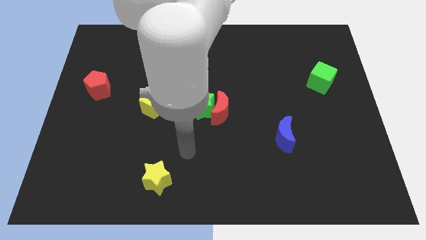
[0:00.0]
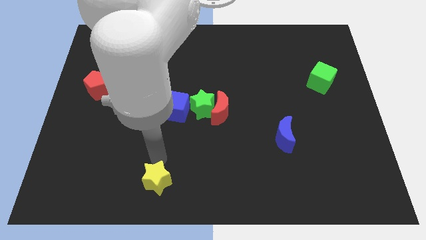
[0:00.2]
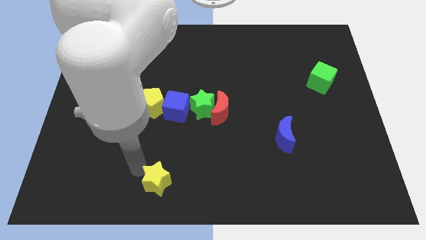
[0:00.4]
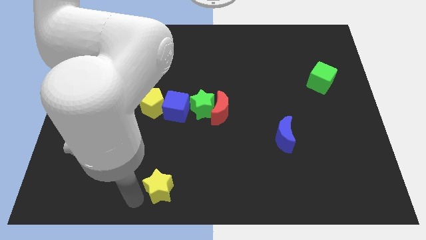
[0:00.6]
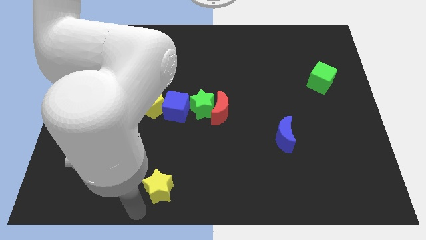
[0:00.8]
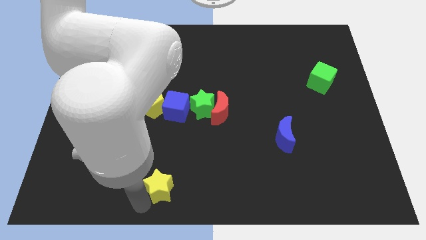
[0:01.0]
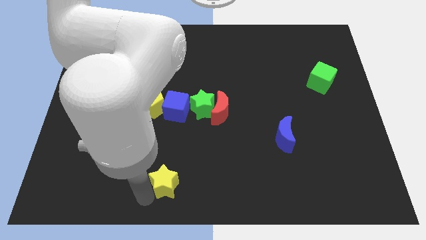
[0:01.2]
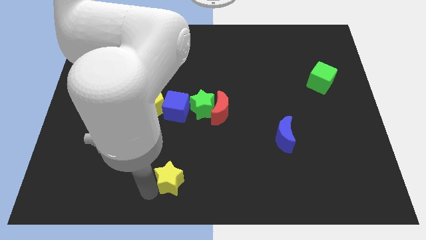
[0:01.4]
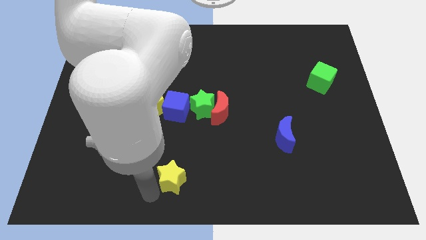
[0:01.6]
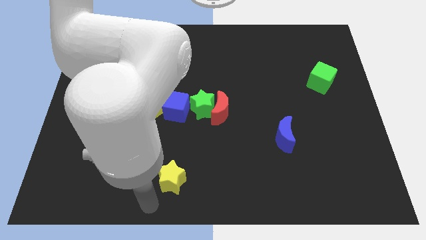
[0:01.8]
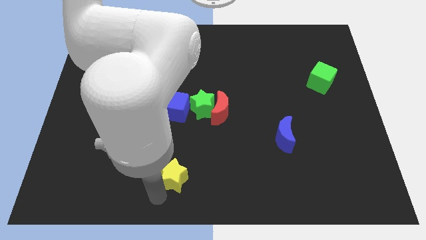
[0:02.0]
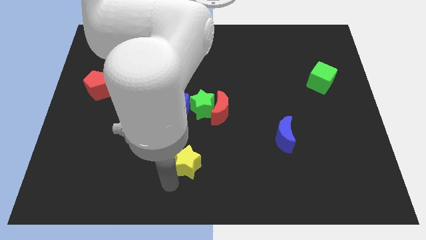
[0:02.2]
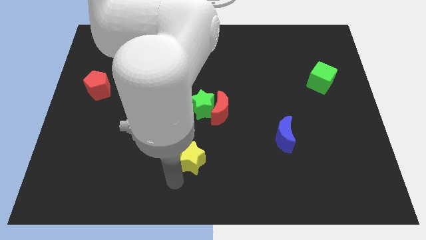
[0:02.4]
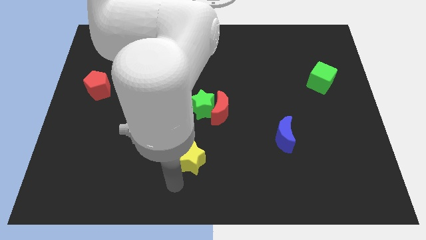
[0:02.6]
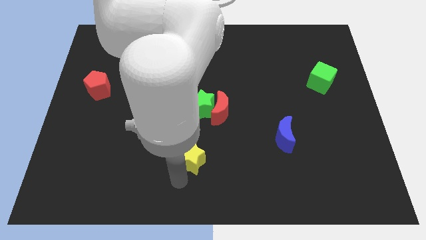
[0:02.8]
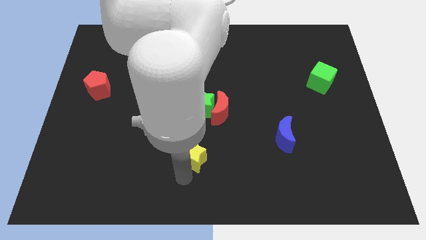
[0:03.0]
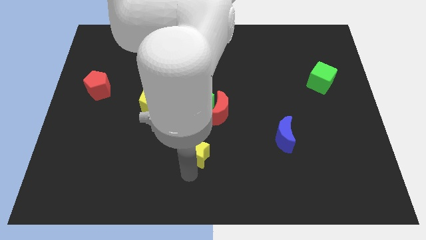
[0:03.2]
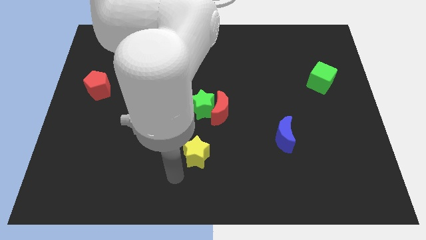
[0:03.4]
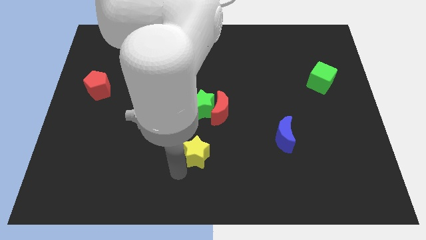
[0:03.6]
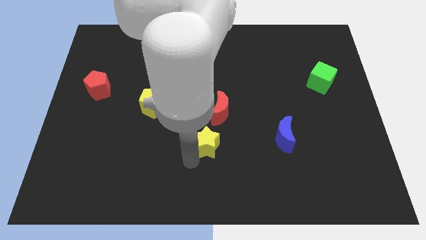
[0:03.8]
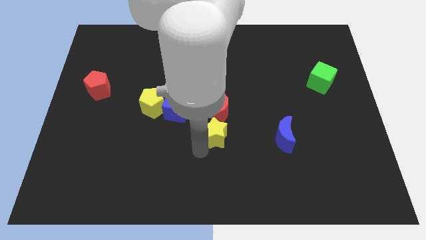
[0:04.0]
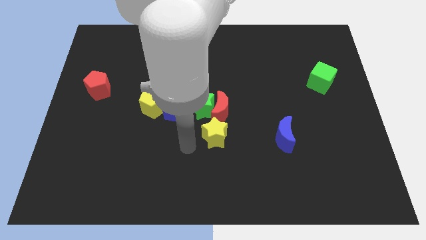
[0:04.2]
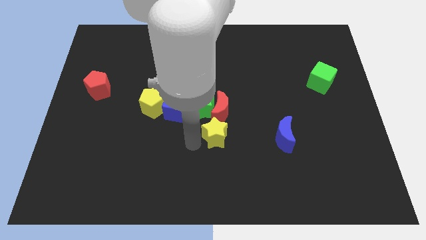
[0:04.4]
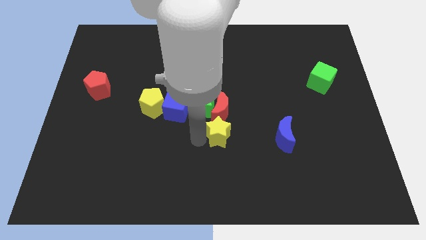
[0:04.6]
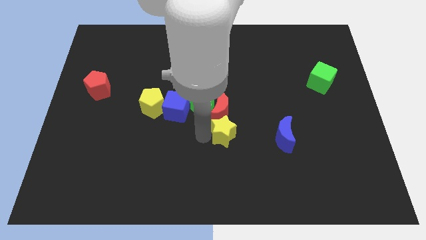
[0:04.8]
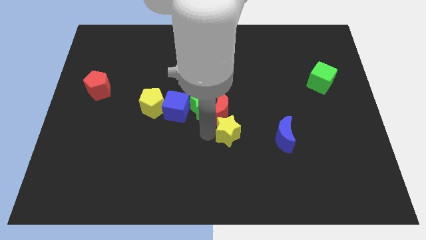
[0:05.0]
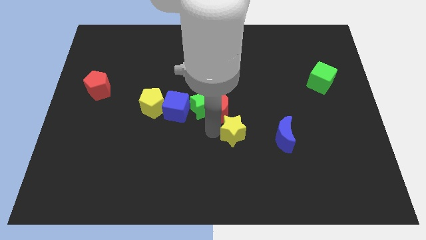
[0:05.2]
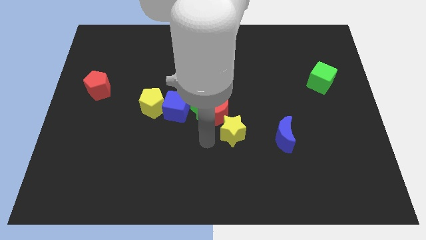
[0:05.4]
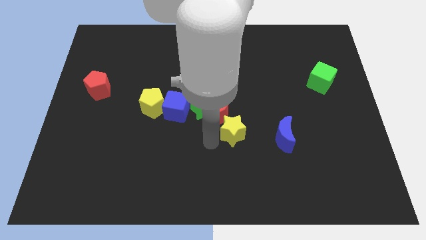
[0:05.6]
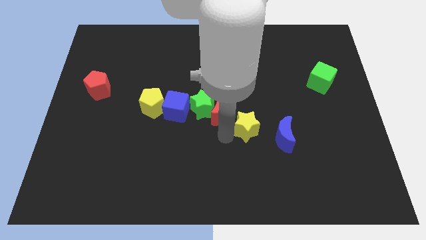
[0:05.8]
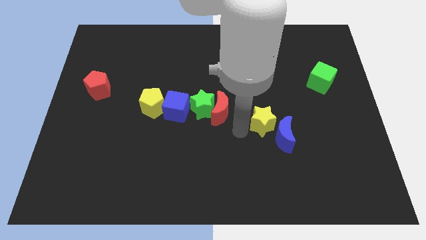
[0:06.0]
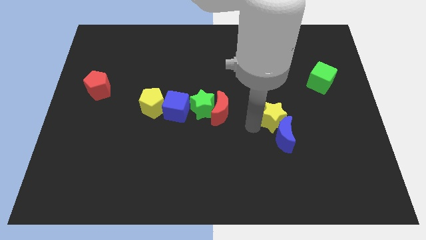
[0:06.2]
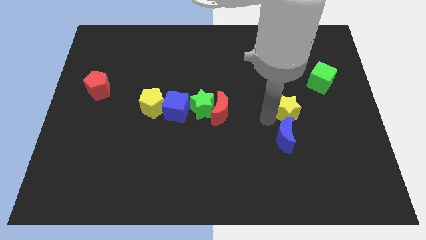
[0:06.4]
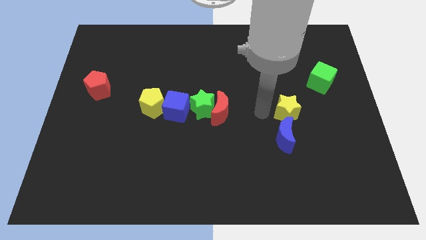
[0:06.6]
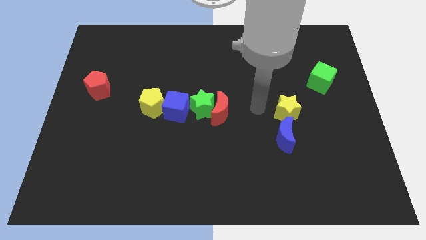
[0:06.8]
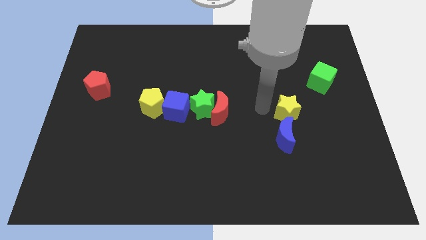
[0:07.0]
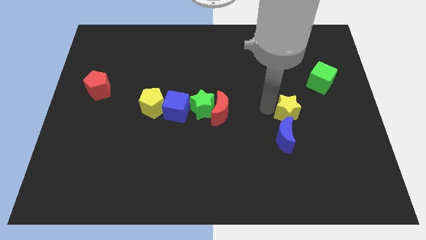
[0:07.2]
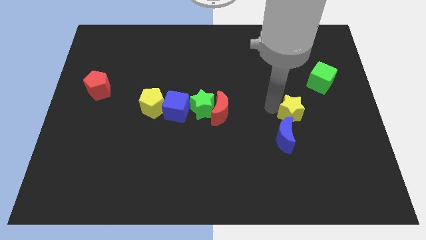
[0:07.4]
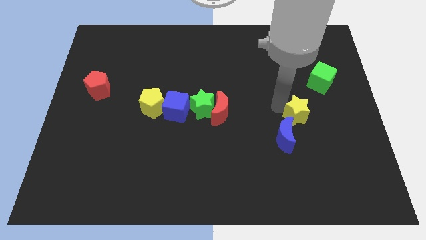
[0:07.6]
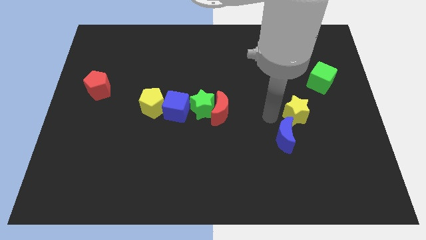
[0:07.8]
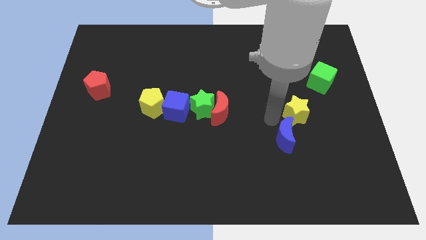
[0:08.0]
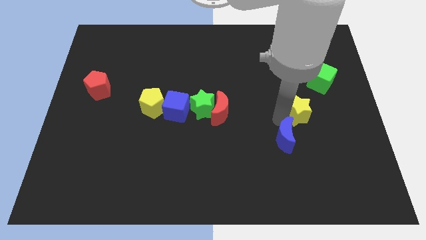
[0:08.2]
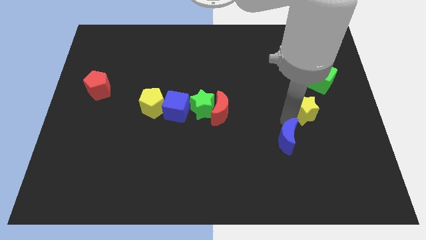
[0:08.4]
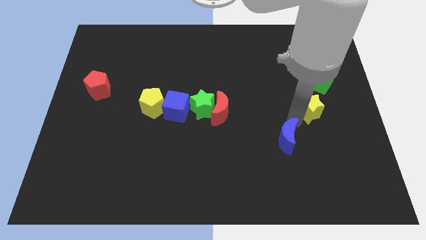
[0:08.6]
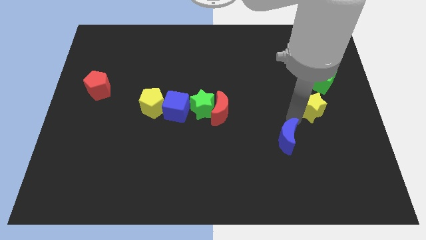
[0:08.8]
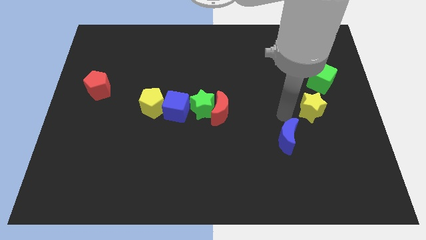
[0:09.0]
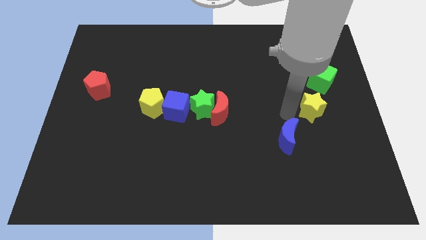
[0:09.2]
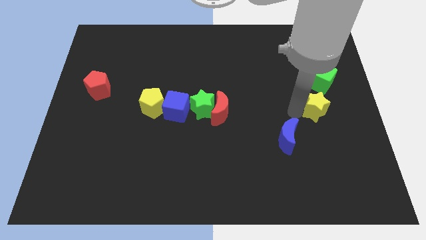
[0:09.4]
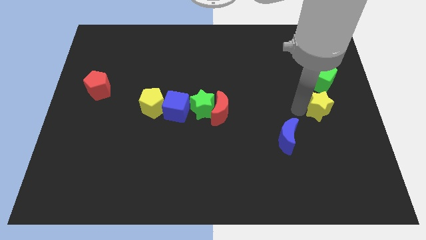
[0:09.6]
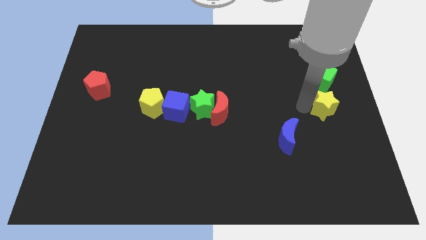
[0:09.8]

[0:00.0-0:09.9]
move the yellow star to the center right

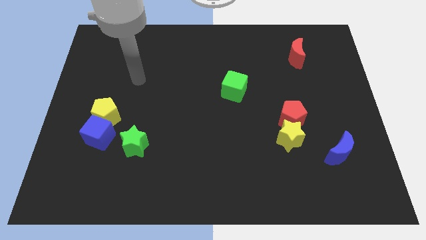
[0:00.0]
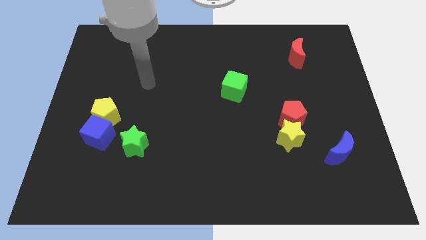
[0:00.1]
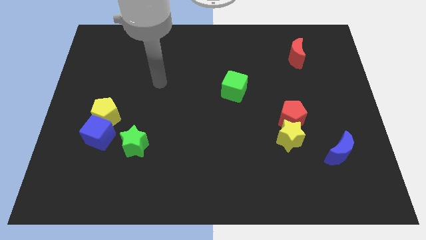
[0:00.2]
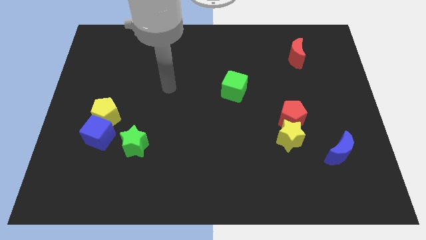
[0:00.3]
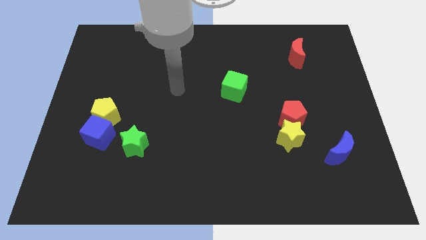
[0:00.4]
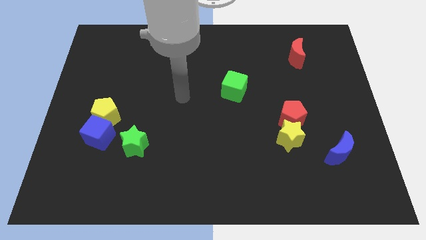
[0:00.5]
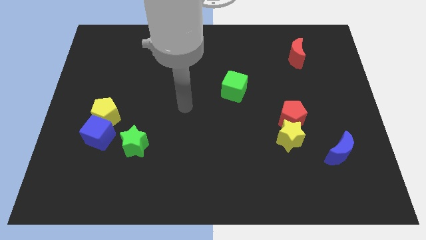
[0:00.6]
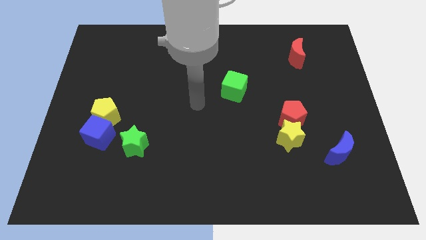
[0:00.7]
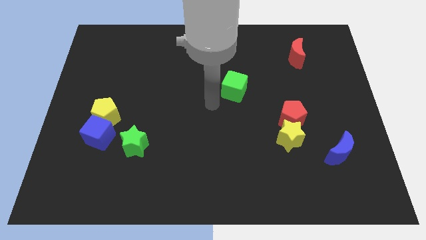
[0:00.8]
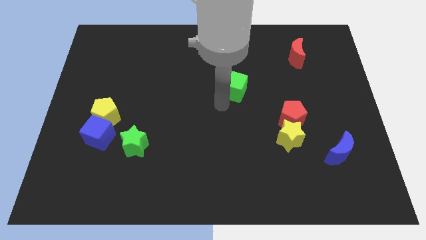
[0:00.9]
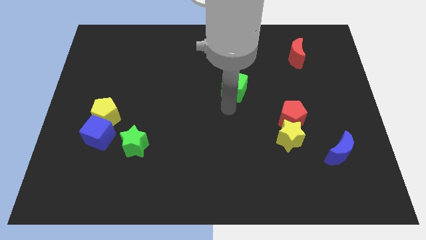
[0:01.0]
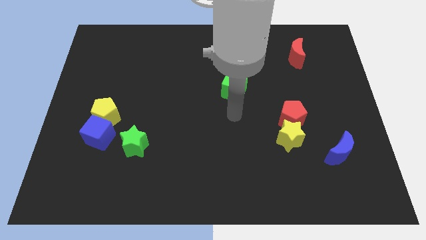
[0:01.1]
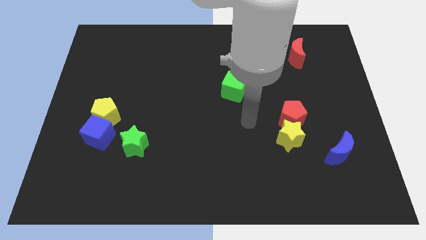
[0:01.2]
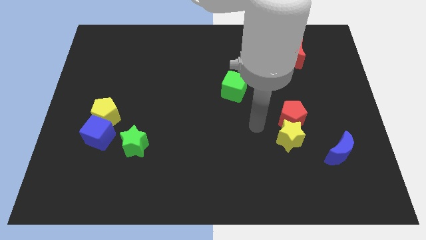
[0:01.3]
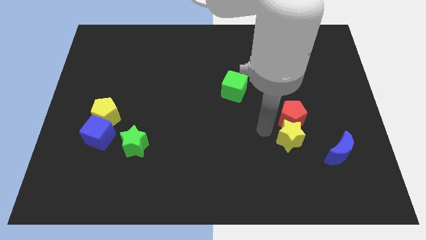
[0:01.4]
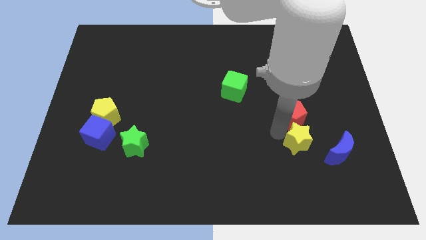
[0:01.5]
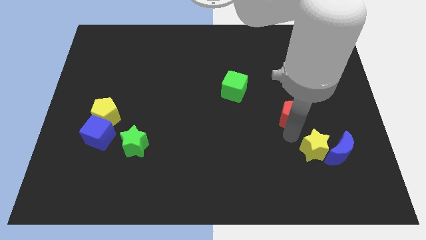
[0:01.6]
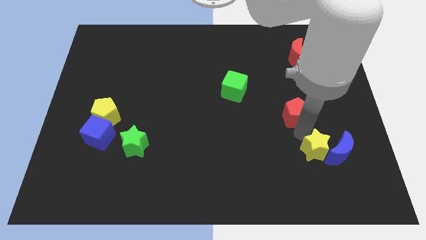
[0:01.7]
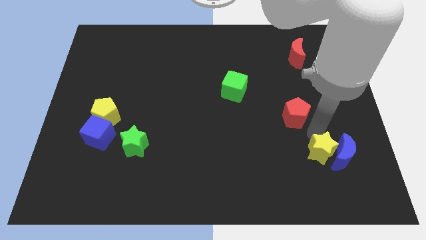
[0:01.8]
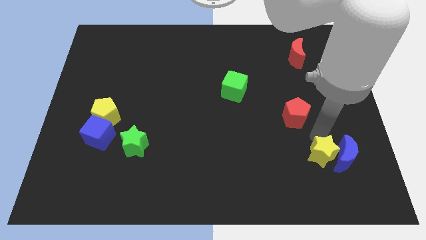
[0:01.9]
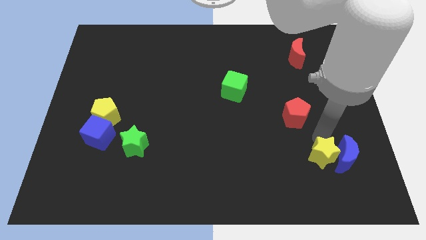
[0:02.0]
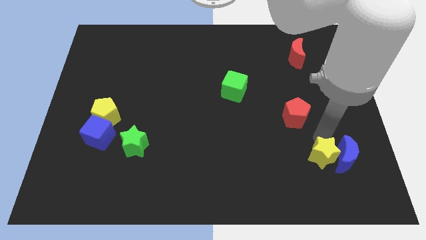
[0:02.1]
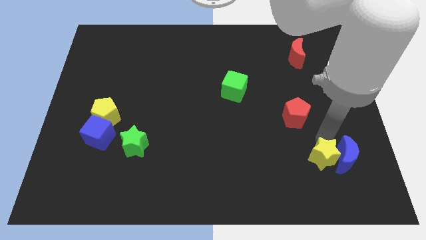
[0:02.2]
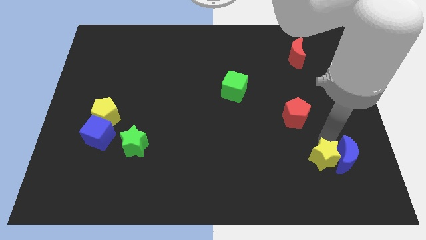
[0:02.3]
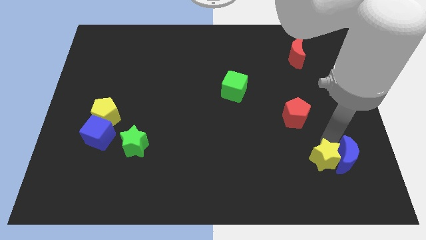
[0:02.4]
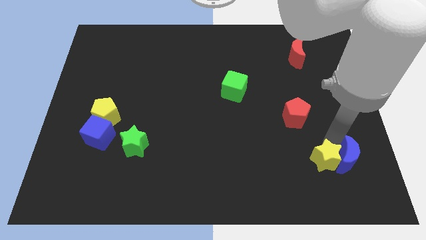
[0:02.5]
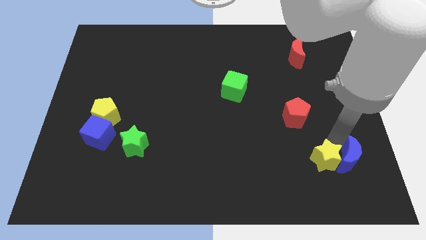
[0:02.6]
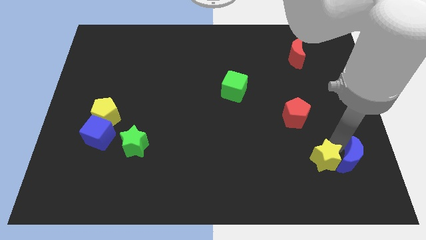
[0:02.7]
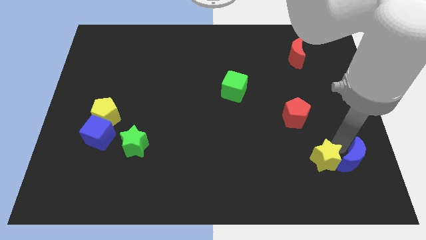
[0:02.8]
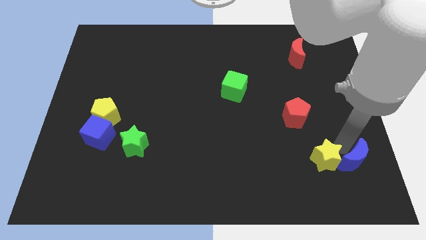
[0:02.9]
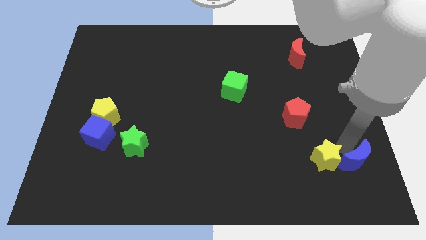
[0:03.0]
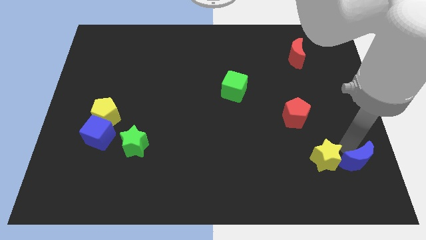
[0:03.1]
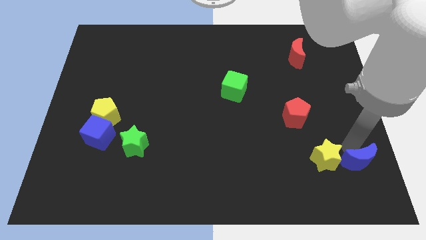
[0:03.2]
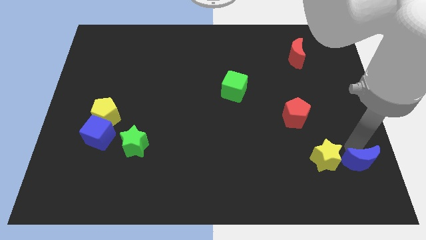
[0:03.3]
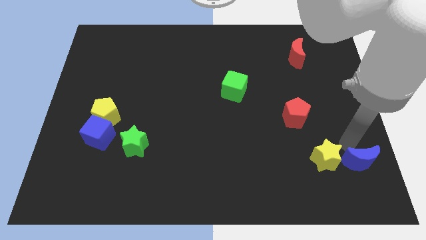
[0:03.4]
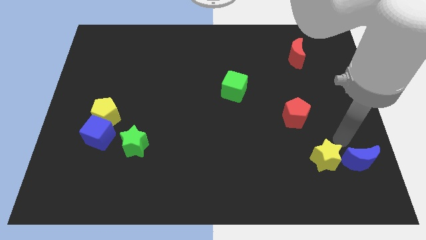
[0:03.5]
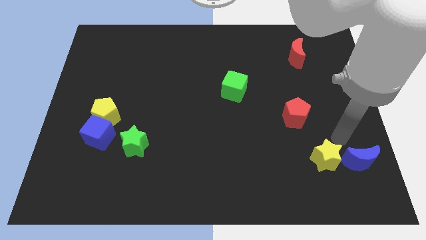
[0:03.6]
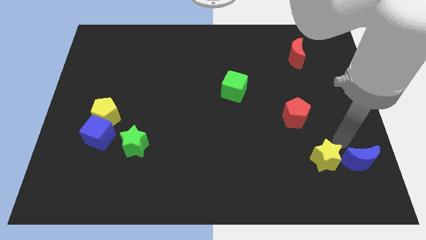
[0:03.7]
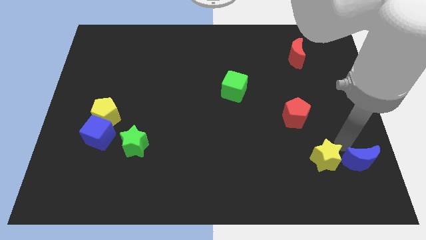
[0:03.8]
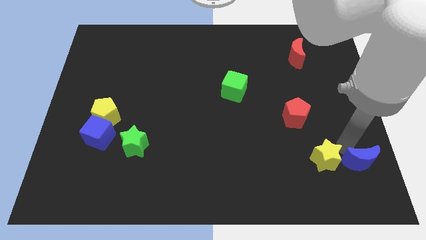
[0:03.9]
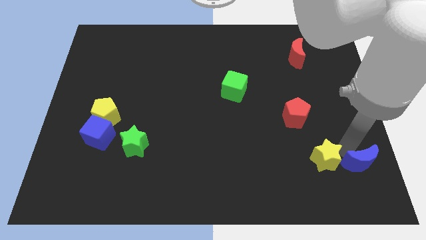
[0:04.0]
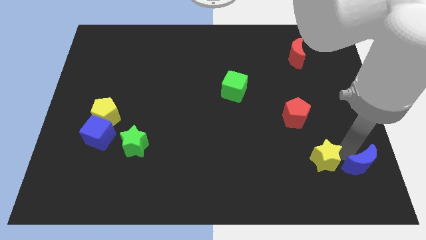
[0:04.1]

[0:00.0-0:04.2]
move the blue moon to the bottom right of the board
